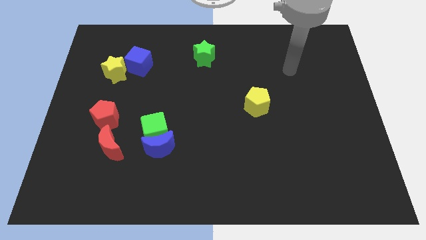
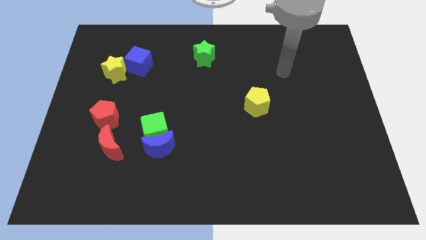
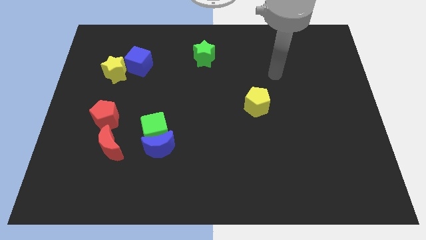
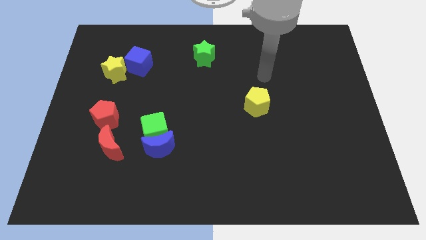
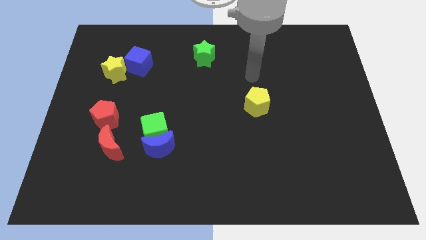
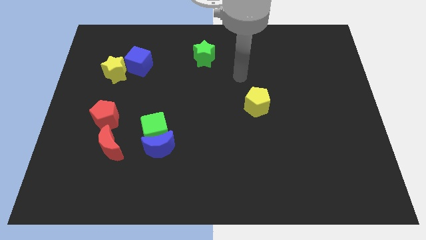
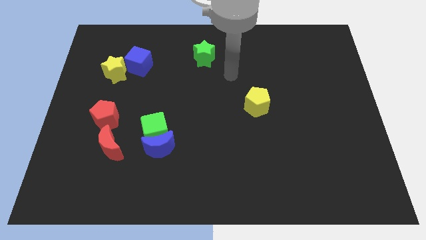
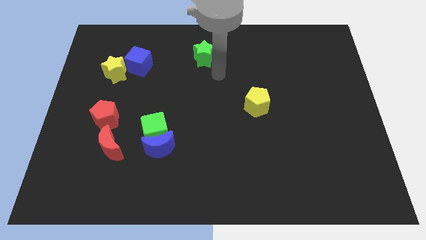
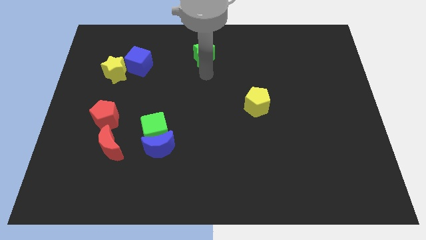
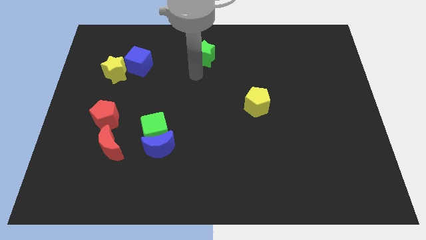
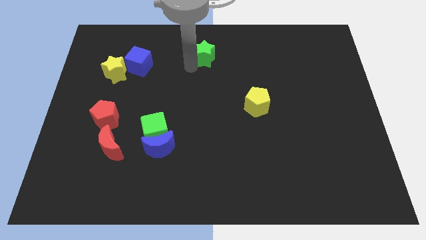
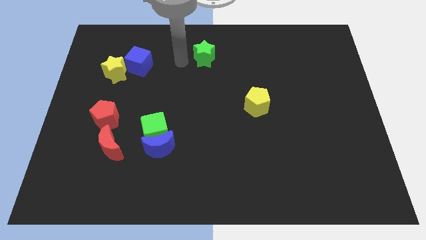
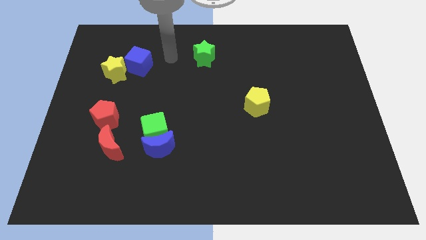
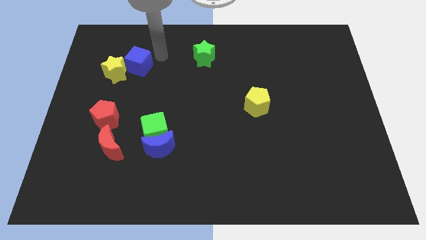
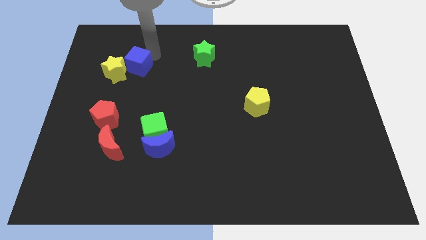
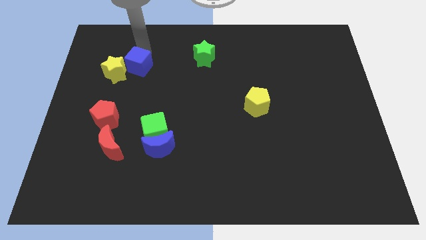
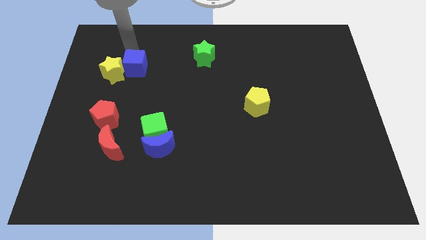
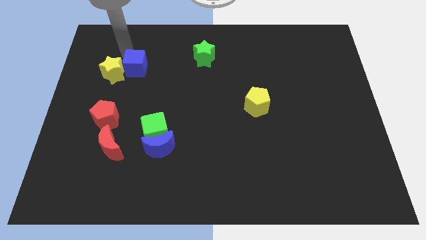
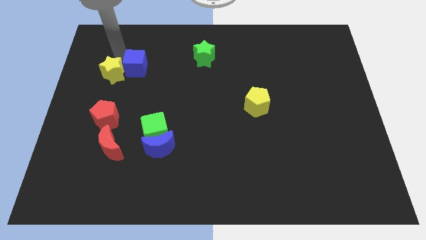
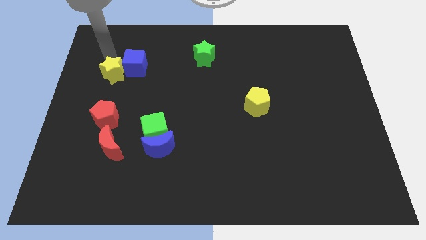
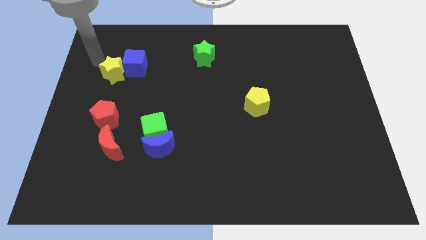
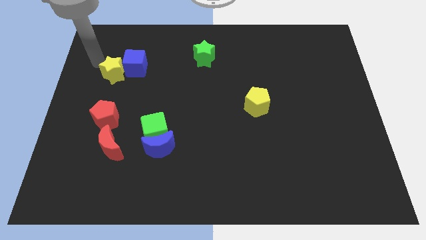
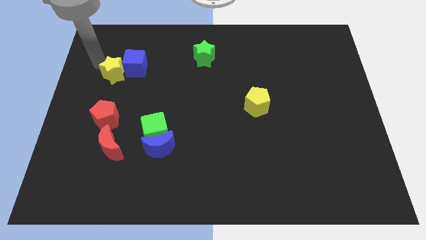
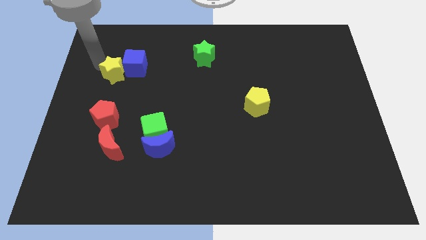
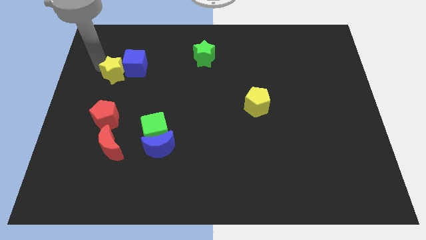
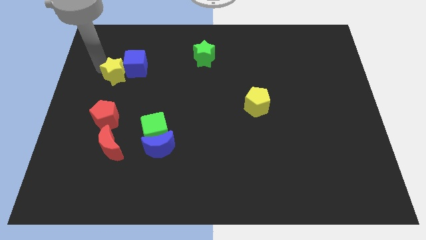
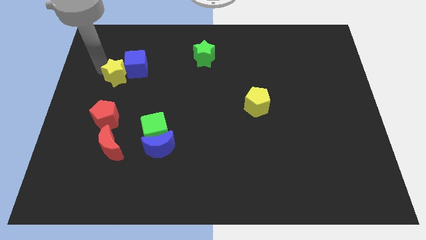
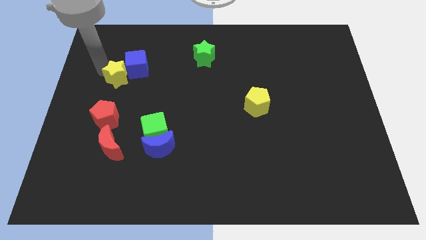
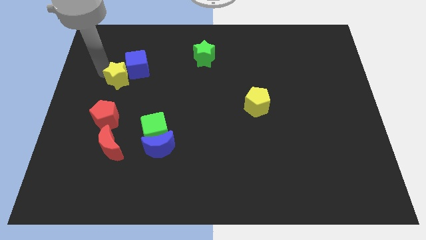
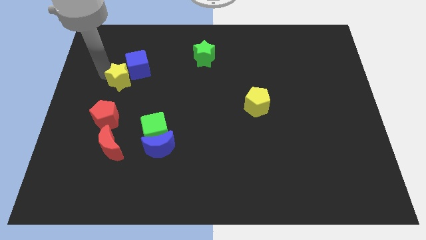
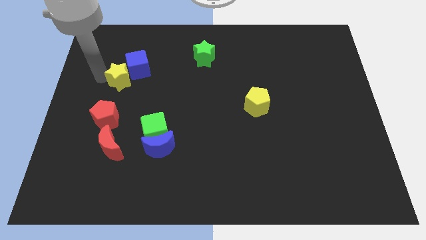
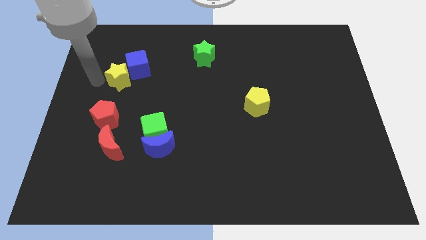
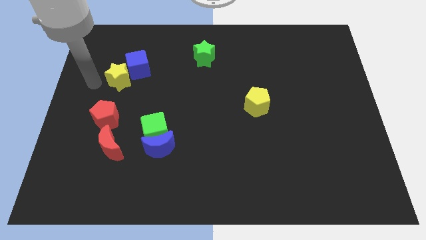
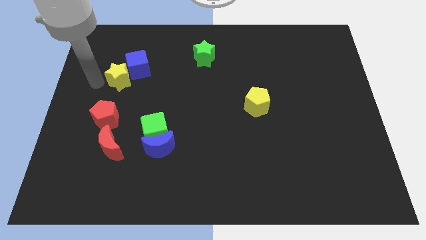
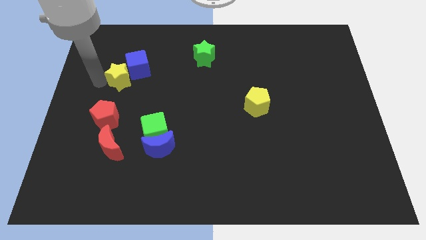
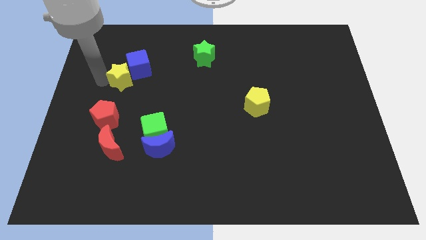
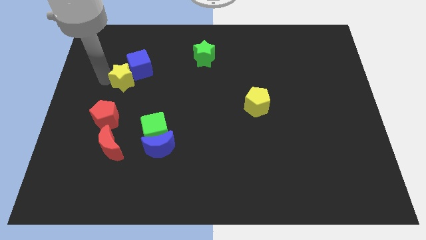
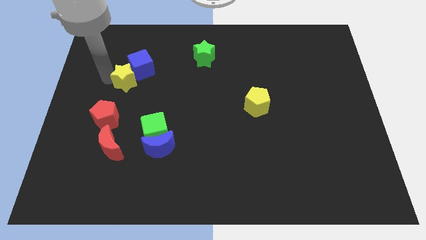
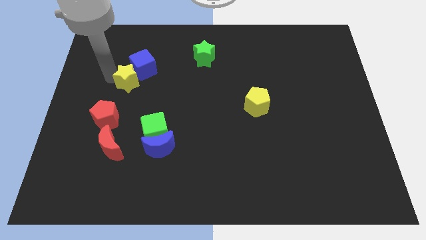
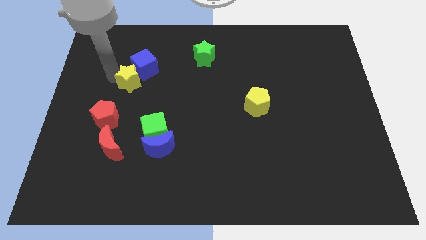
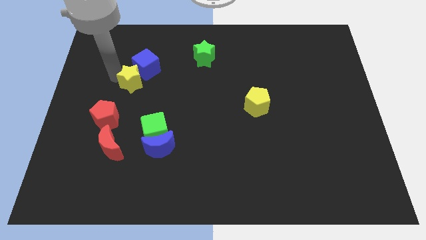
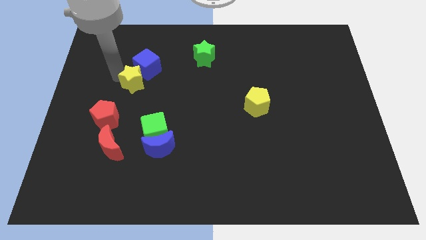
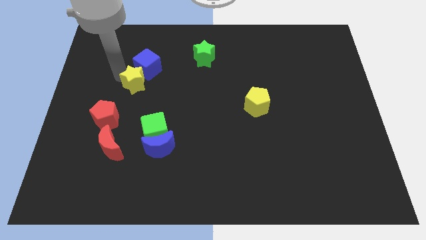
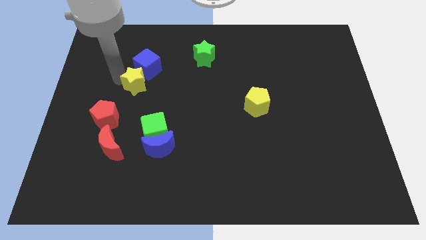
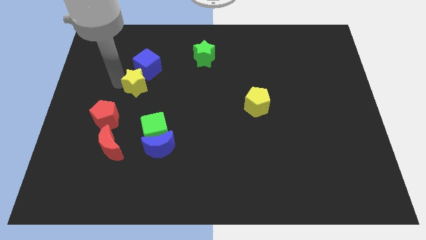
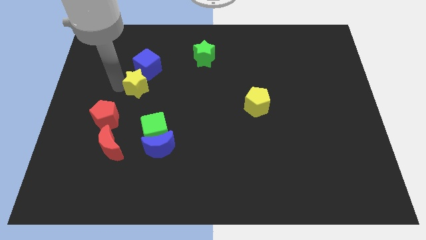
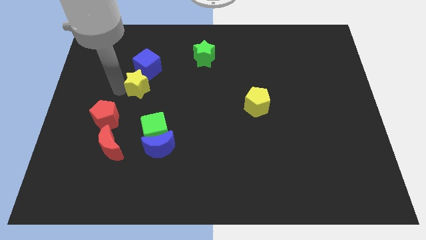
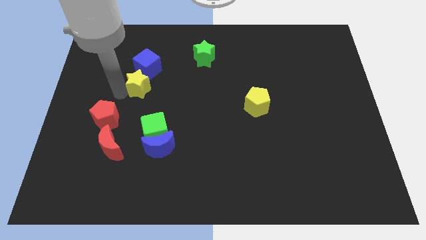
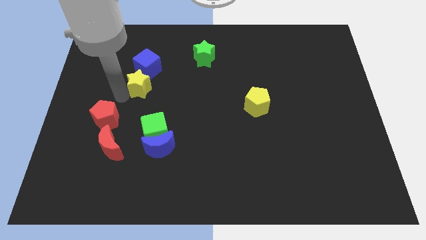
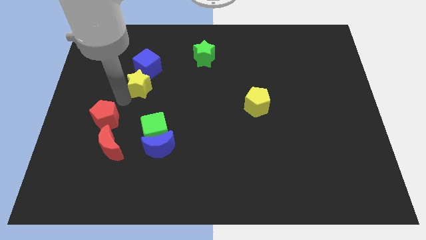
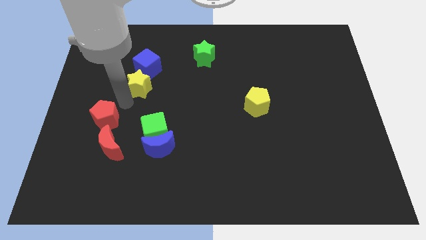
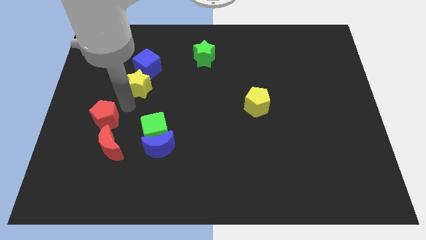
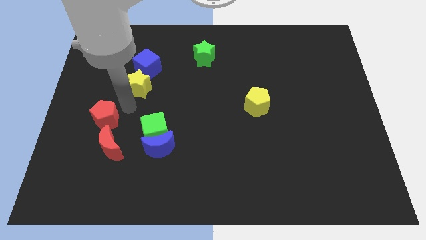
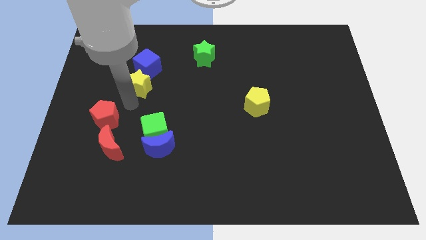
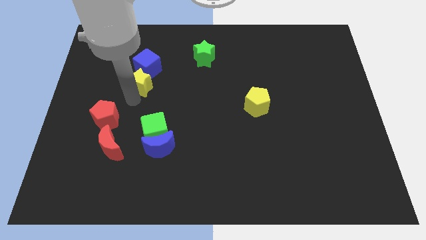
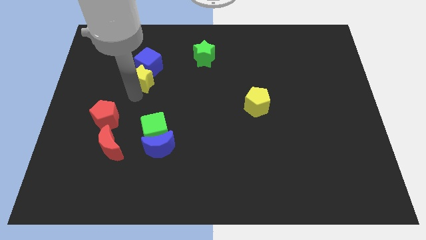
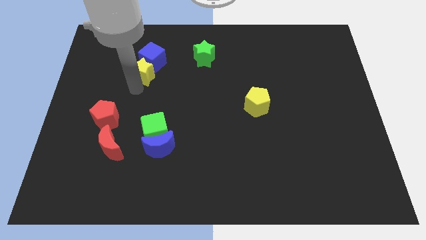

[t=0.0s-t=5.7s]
slide the yellow star right a bit

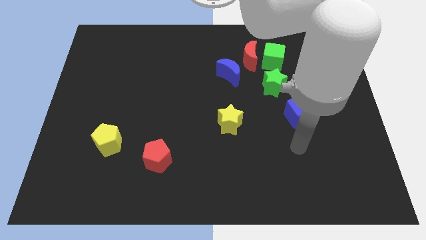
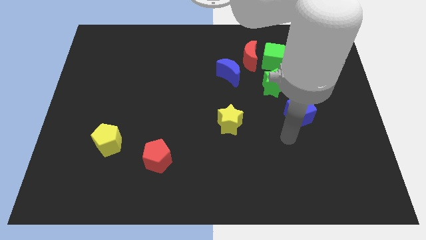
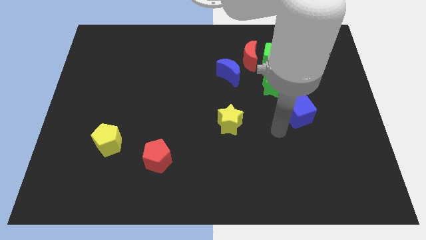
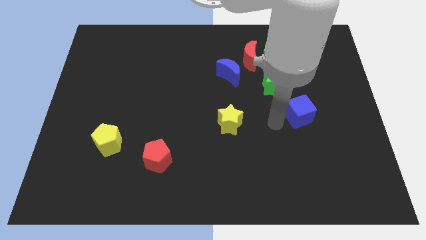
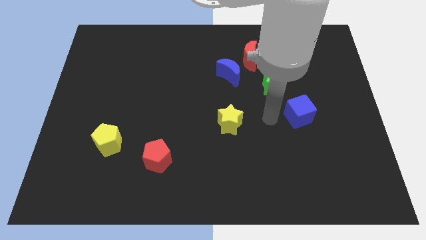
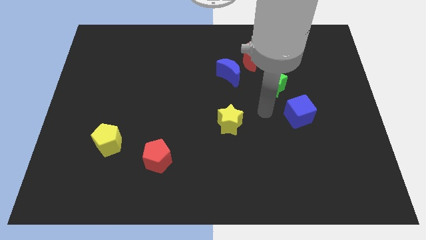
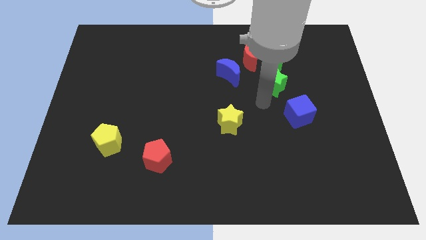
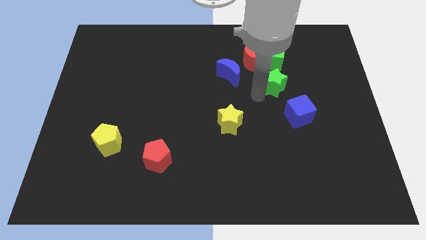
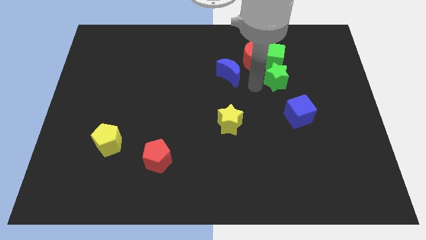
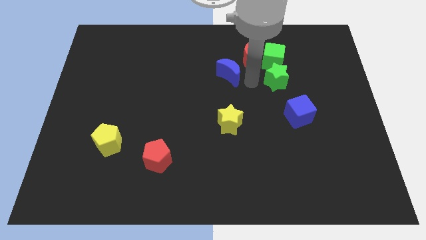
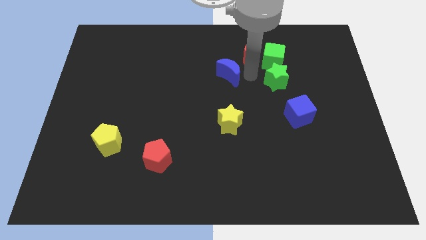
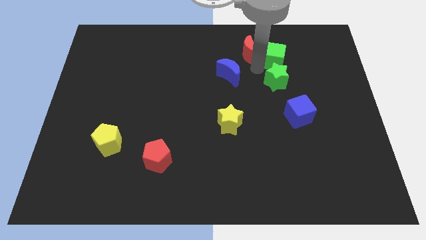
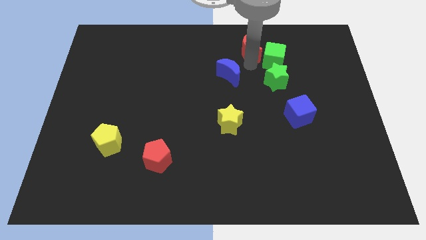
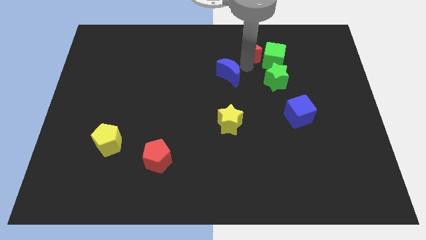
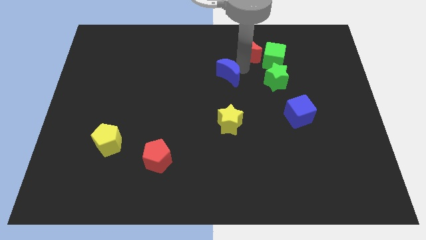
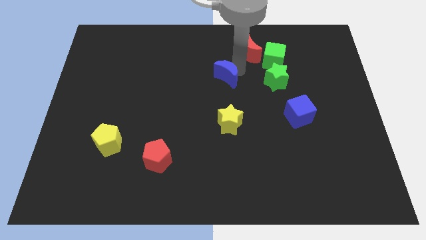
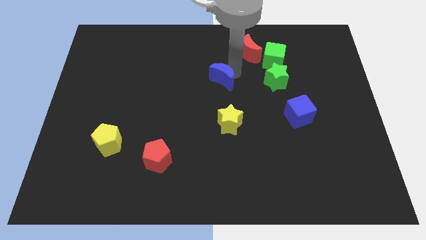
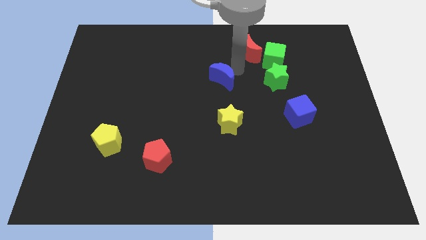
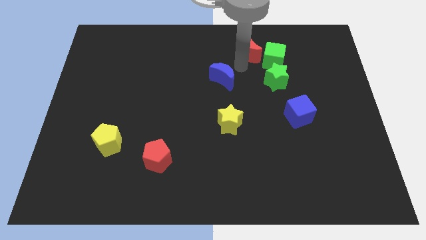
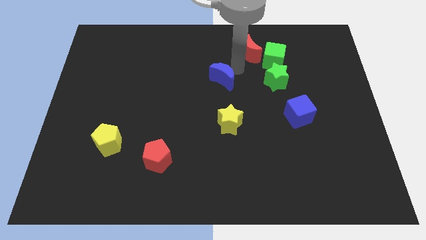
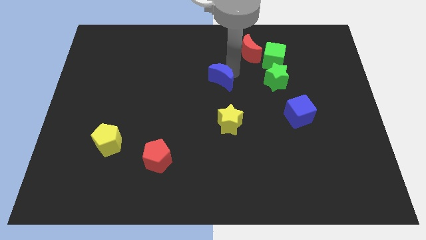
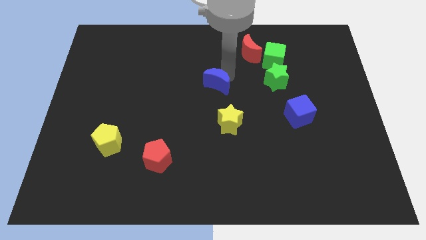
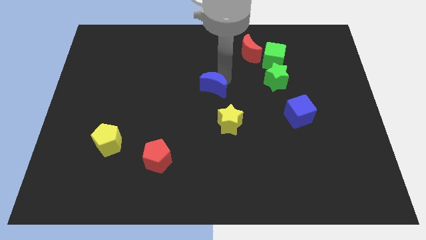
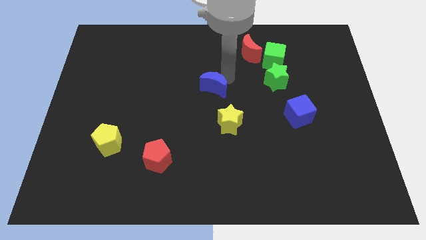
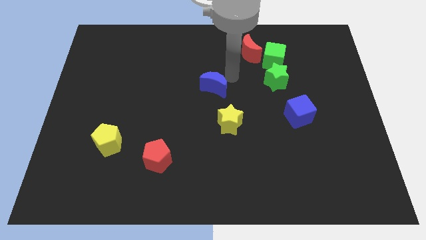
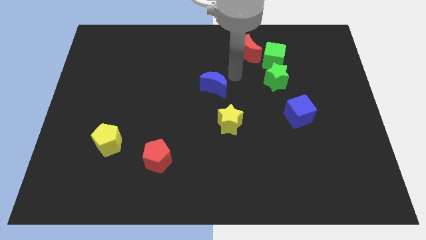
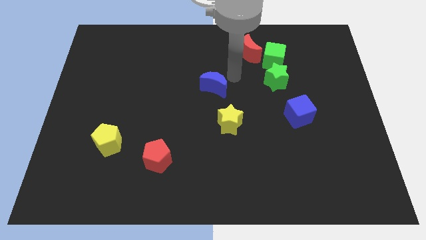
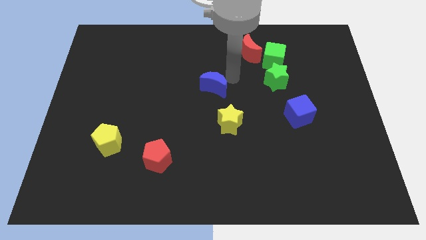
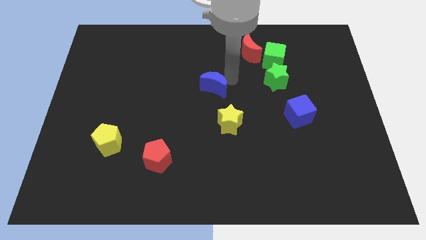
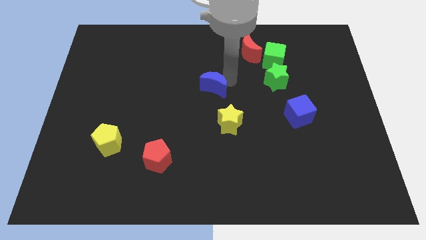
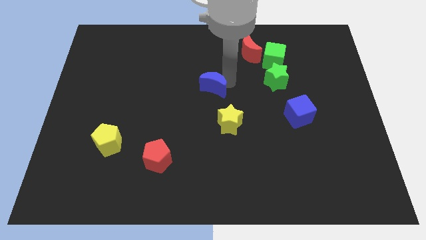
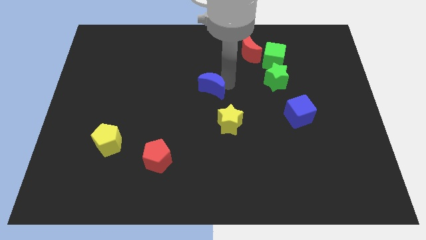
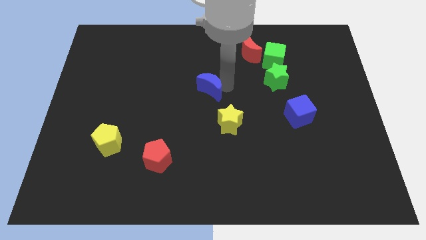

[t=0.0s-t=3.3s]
slide the blue moon slightly down and then to the left
